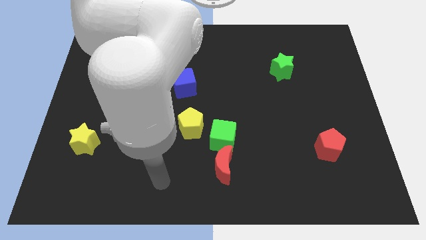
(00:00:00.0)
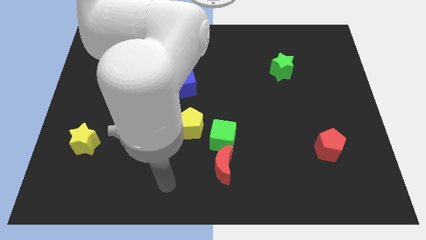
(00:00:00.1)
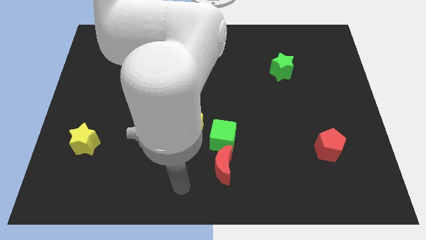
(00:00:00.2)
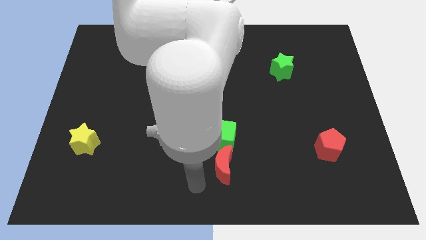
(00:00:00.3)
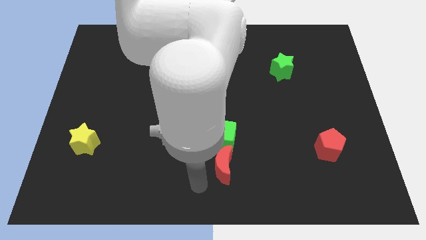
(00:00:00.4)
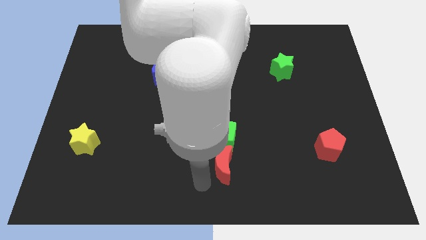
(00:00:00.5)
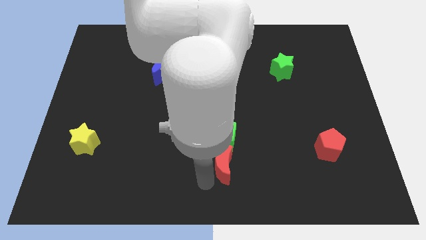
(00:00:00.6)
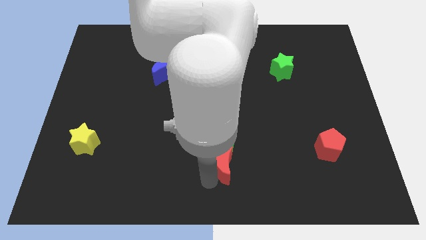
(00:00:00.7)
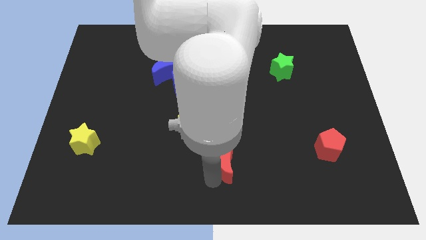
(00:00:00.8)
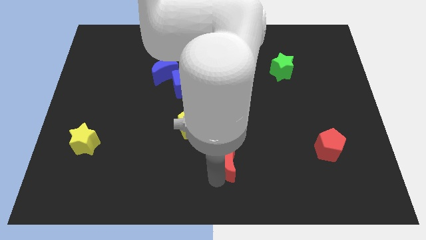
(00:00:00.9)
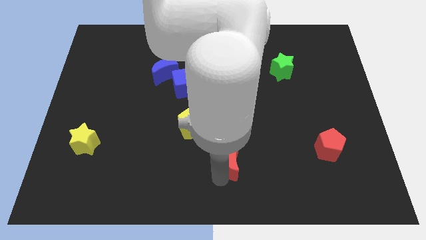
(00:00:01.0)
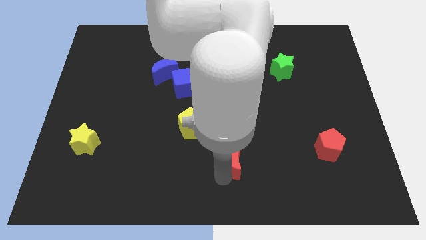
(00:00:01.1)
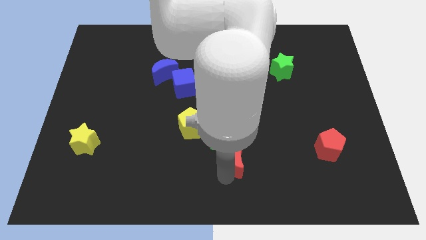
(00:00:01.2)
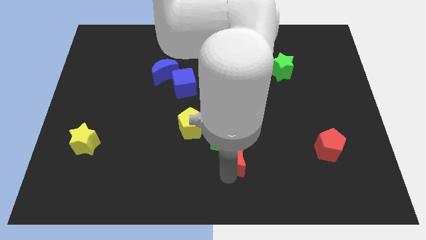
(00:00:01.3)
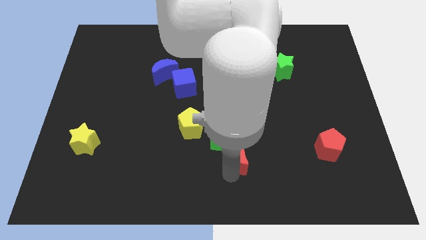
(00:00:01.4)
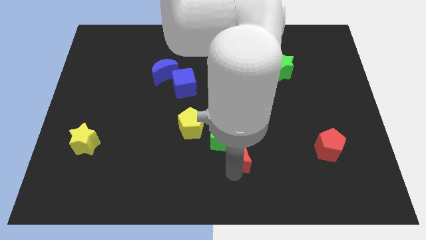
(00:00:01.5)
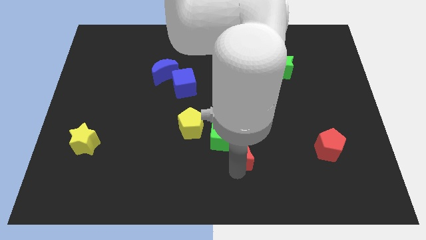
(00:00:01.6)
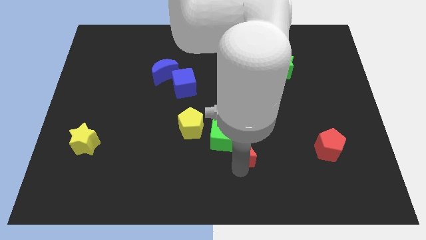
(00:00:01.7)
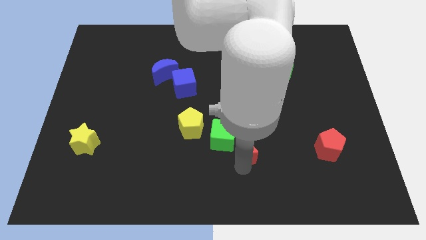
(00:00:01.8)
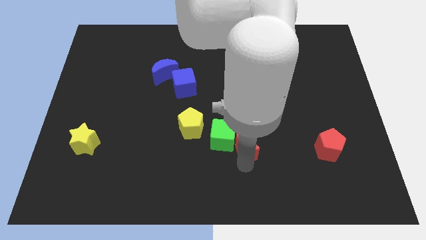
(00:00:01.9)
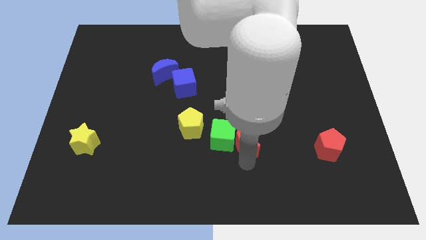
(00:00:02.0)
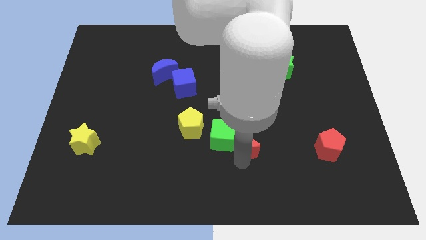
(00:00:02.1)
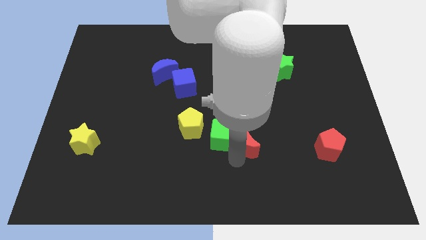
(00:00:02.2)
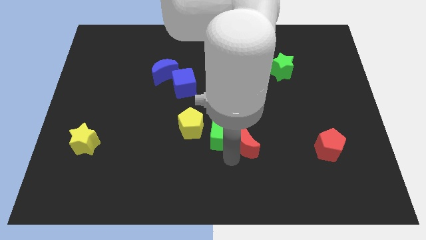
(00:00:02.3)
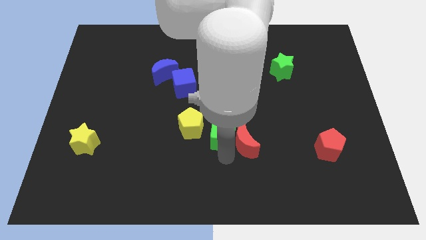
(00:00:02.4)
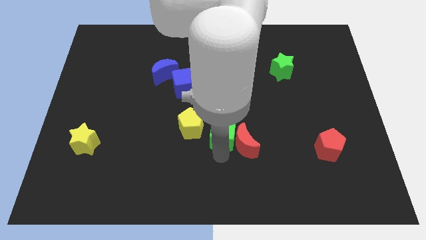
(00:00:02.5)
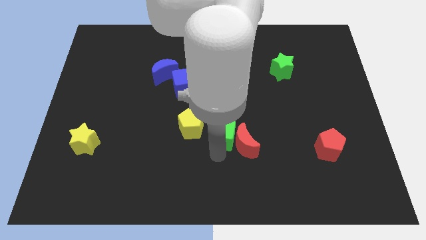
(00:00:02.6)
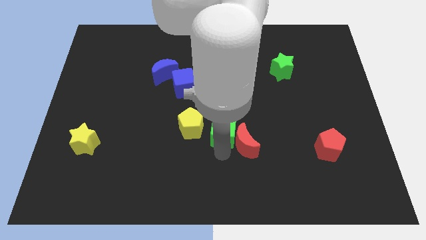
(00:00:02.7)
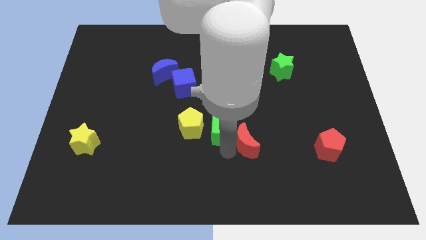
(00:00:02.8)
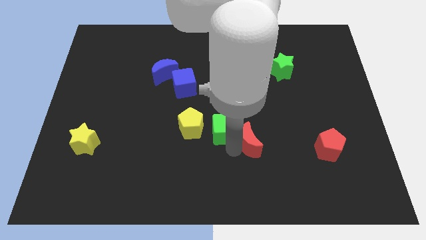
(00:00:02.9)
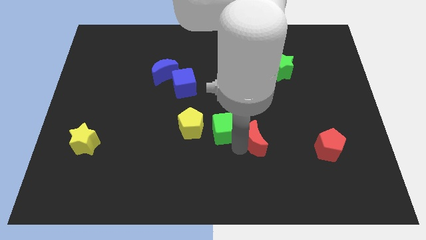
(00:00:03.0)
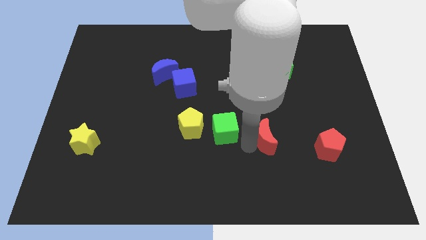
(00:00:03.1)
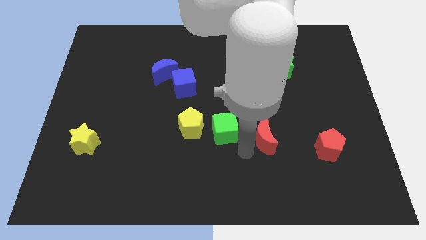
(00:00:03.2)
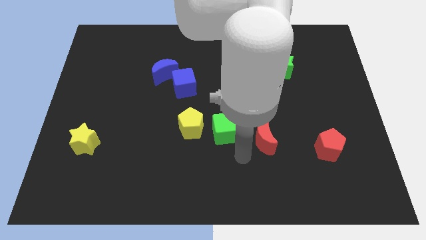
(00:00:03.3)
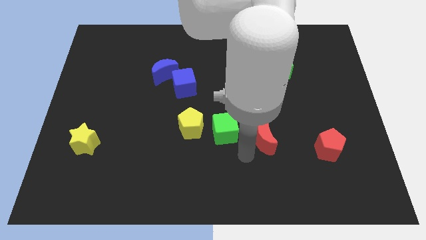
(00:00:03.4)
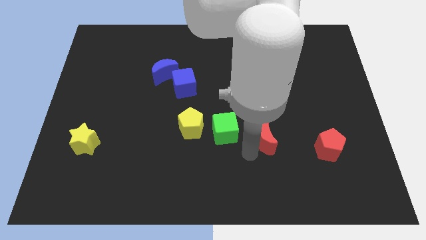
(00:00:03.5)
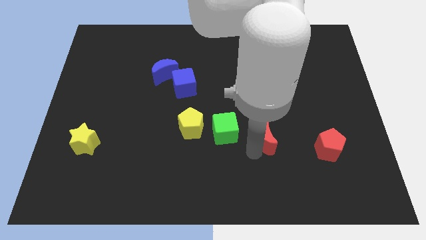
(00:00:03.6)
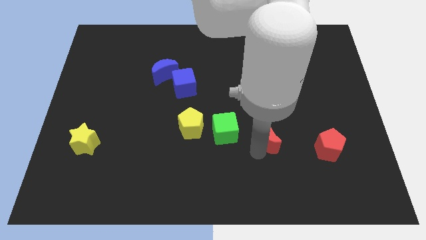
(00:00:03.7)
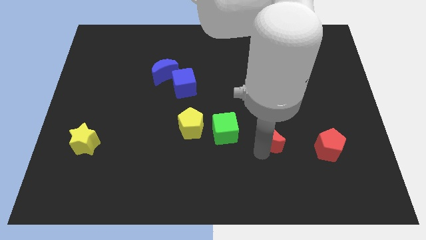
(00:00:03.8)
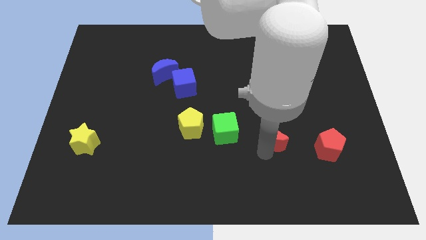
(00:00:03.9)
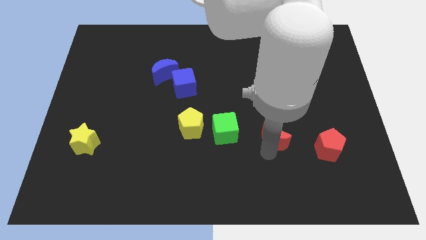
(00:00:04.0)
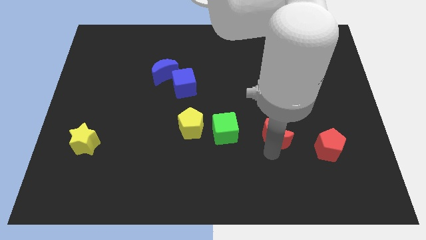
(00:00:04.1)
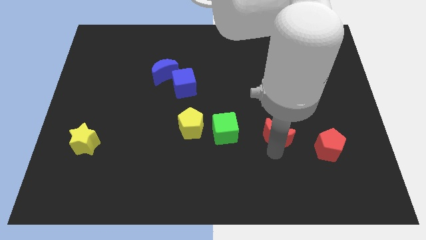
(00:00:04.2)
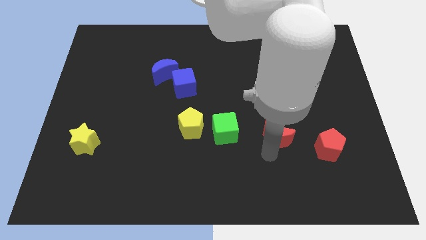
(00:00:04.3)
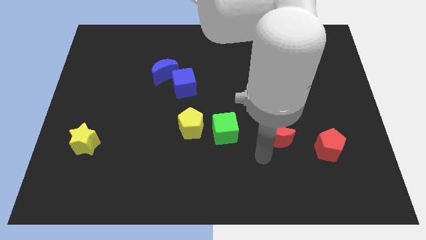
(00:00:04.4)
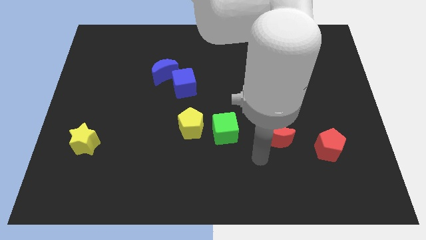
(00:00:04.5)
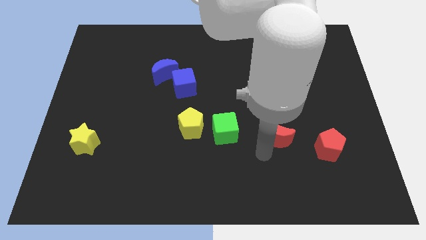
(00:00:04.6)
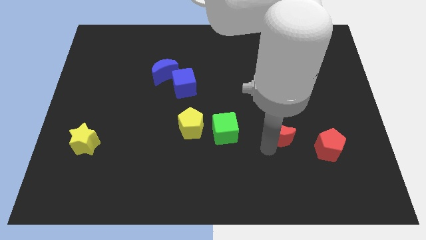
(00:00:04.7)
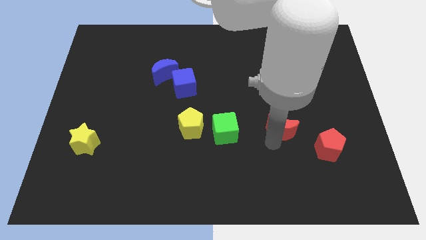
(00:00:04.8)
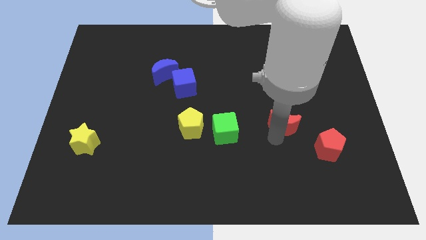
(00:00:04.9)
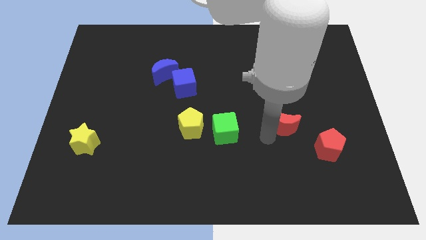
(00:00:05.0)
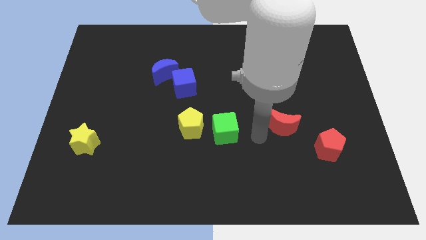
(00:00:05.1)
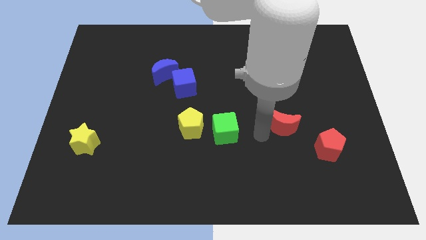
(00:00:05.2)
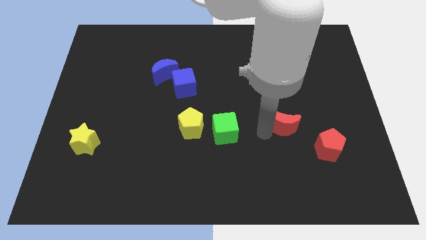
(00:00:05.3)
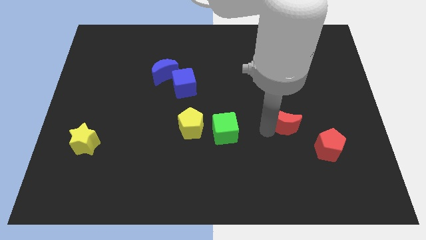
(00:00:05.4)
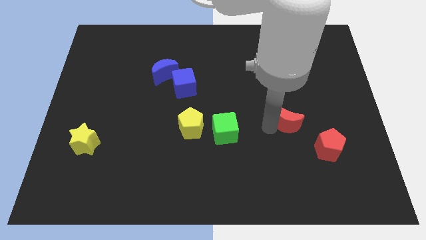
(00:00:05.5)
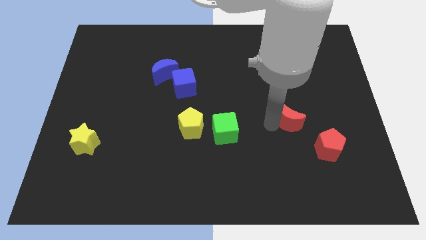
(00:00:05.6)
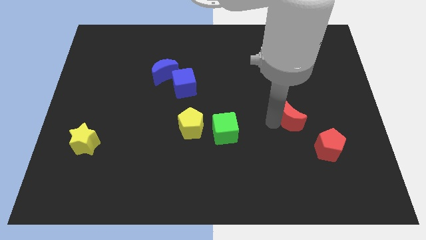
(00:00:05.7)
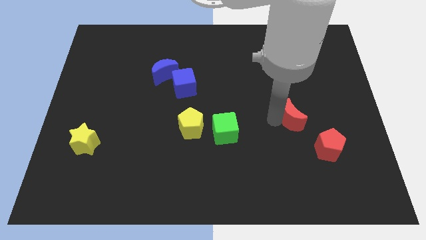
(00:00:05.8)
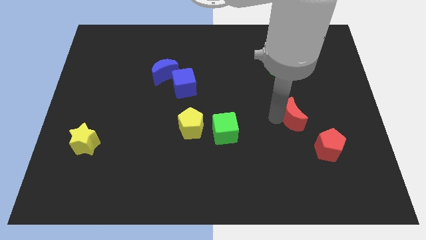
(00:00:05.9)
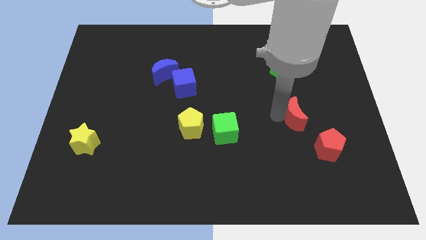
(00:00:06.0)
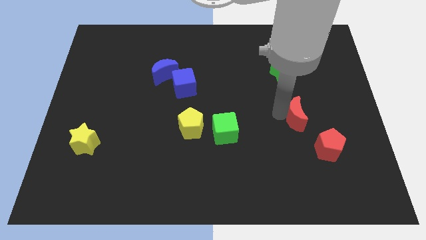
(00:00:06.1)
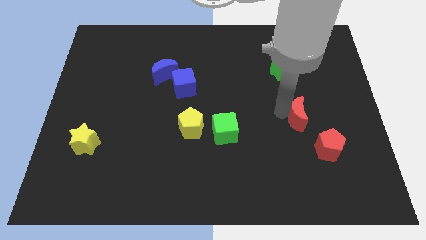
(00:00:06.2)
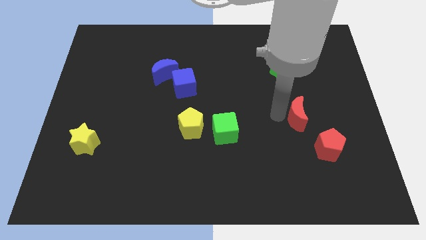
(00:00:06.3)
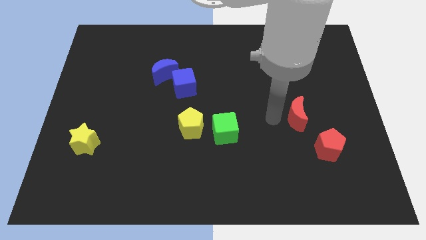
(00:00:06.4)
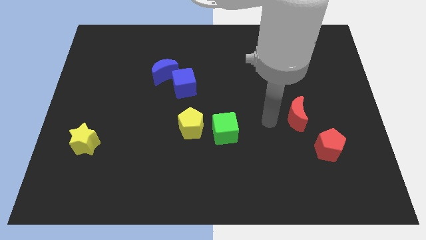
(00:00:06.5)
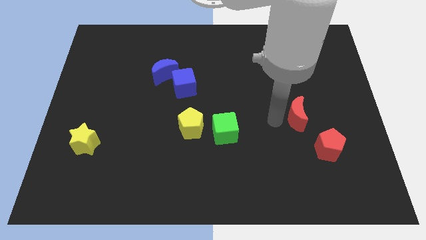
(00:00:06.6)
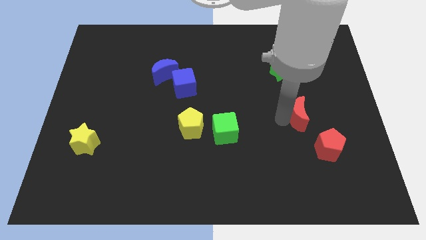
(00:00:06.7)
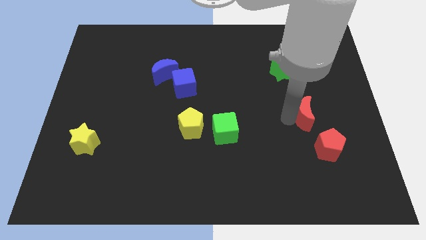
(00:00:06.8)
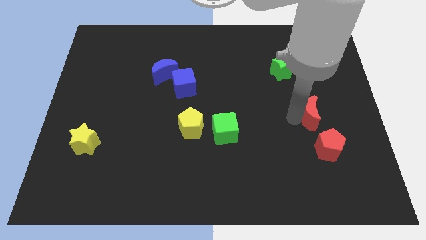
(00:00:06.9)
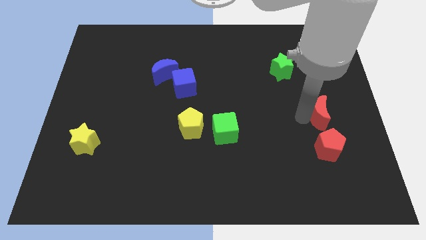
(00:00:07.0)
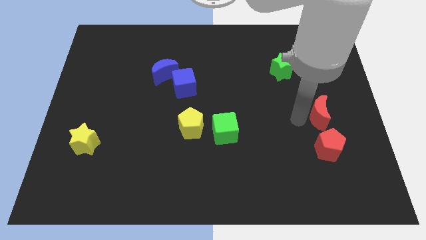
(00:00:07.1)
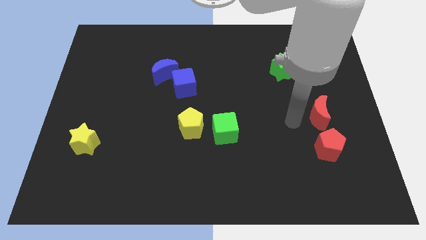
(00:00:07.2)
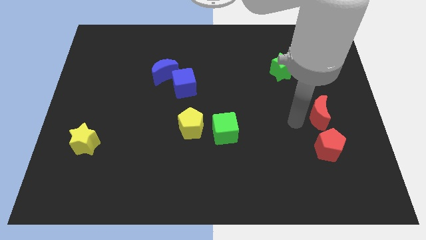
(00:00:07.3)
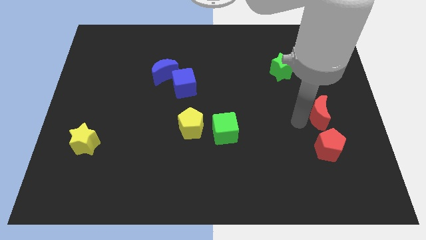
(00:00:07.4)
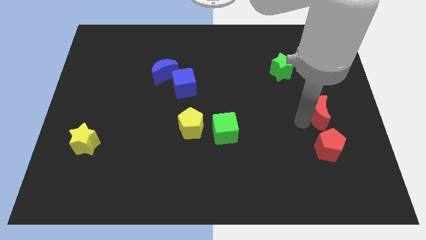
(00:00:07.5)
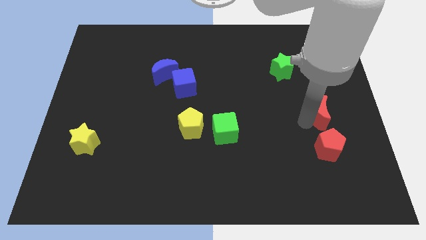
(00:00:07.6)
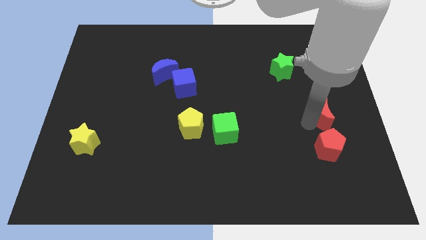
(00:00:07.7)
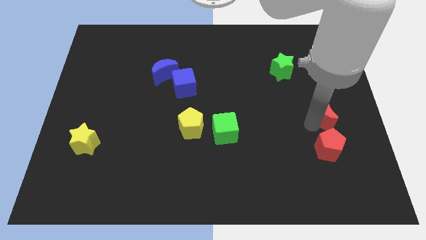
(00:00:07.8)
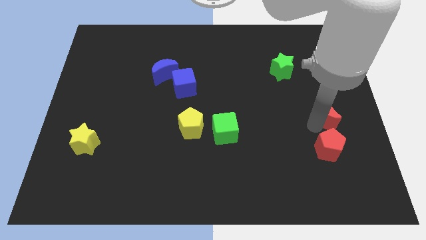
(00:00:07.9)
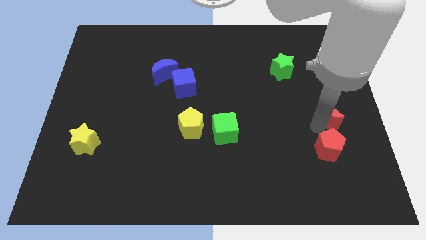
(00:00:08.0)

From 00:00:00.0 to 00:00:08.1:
push the red moon to the right side of the board
